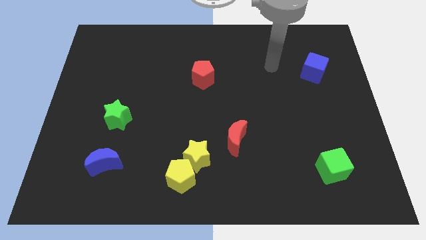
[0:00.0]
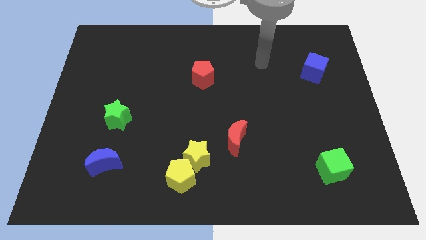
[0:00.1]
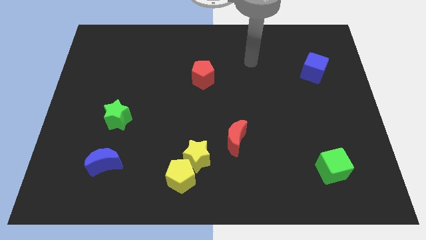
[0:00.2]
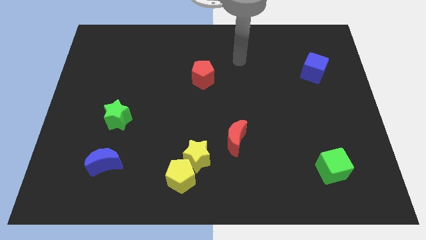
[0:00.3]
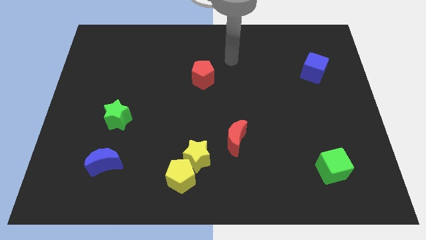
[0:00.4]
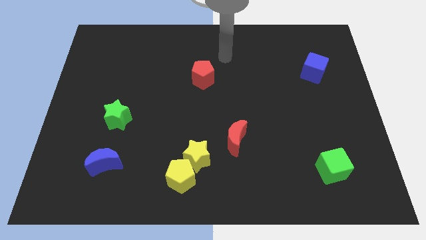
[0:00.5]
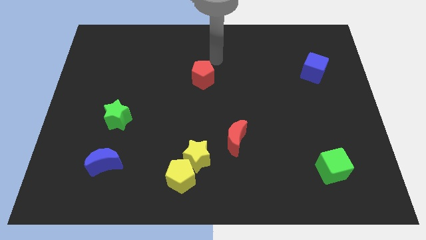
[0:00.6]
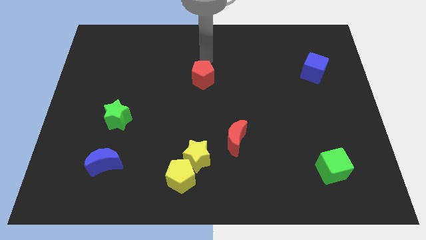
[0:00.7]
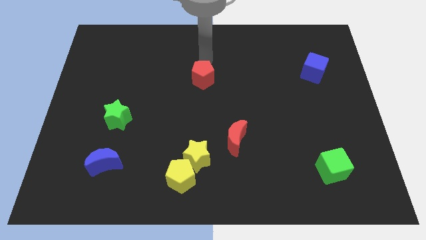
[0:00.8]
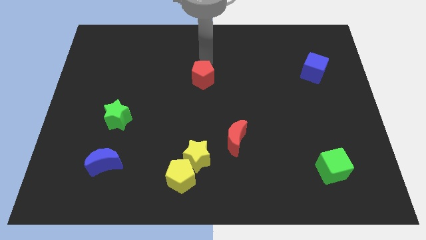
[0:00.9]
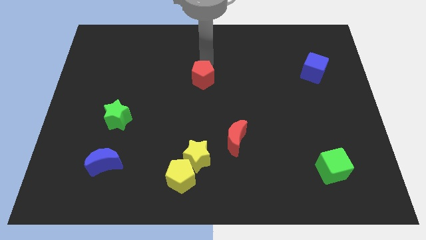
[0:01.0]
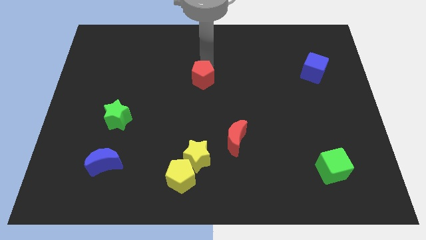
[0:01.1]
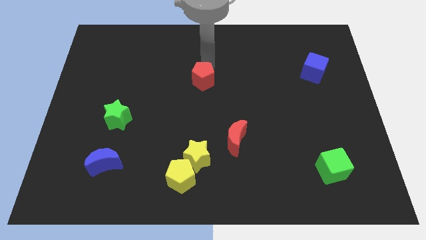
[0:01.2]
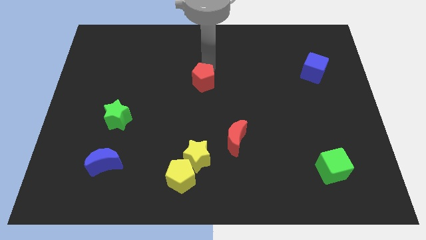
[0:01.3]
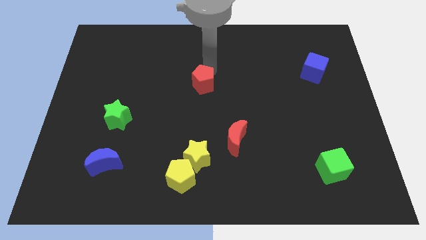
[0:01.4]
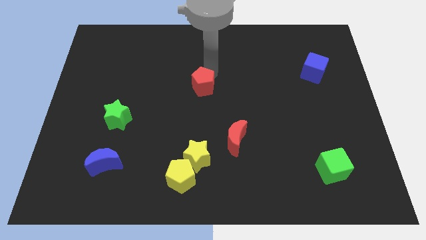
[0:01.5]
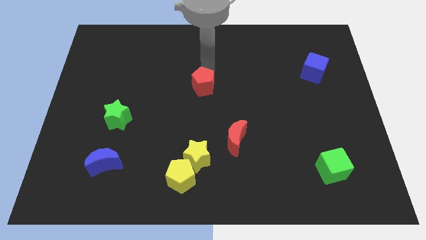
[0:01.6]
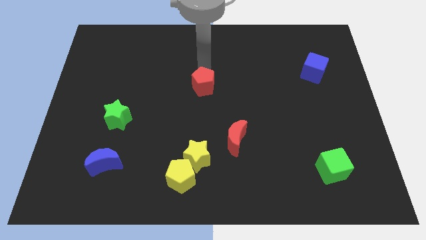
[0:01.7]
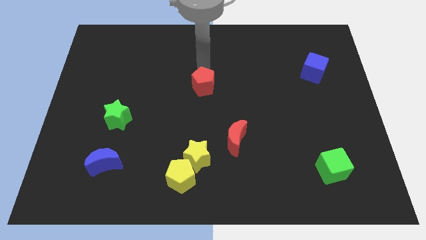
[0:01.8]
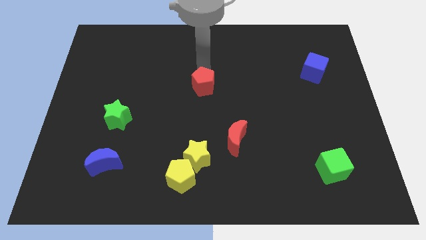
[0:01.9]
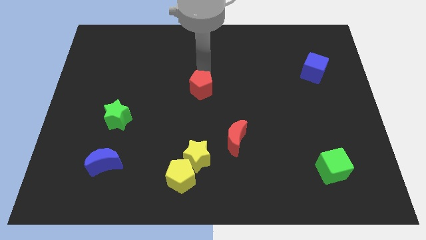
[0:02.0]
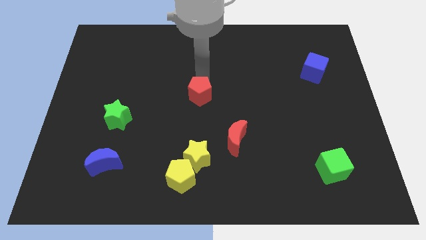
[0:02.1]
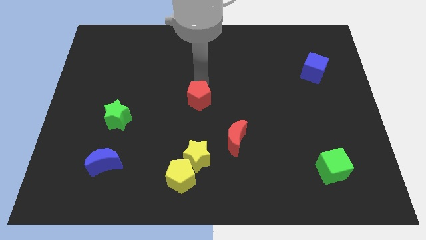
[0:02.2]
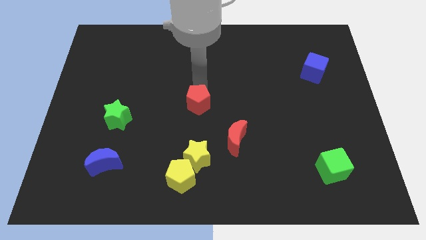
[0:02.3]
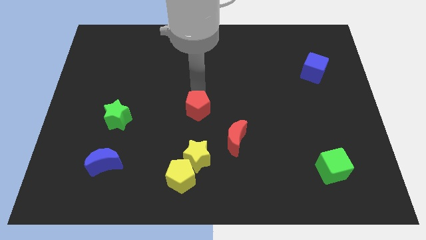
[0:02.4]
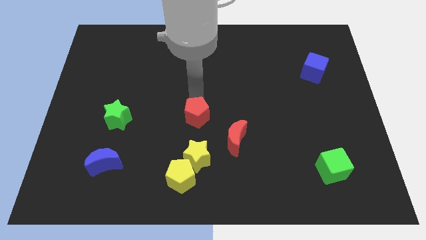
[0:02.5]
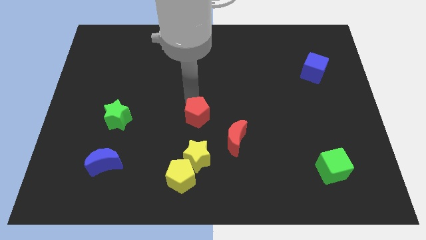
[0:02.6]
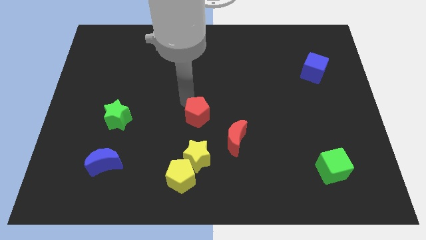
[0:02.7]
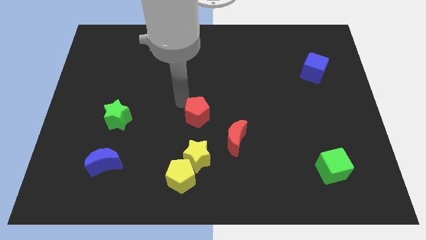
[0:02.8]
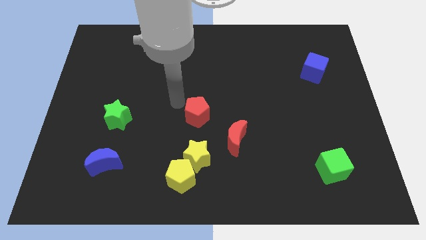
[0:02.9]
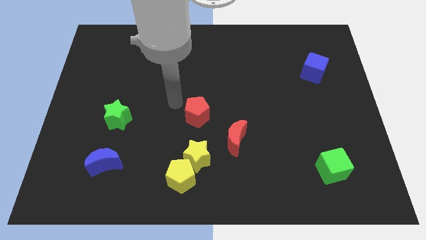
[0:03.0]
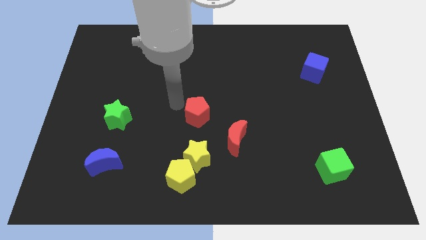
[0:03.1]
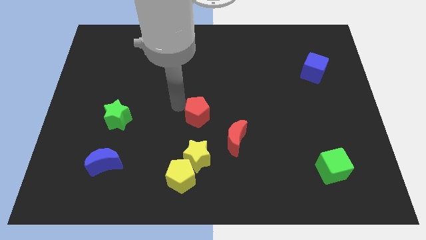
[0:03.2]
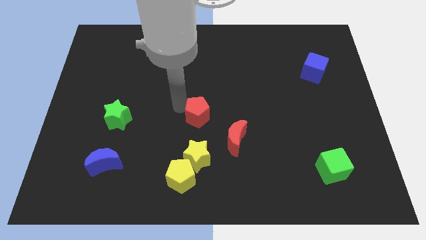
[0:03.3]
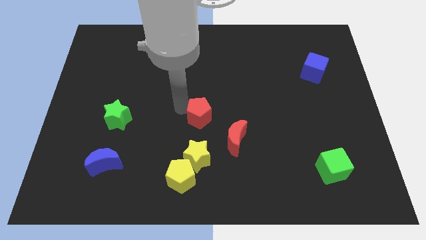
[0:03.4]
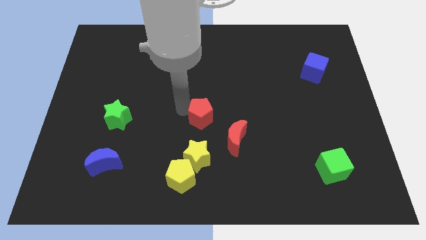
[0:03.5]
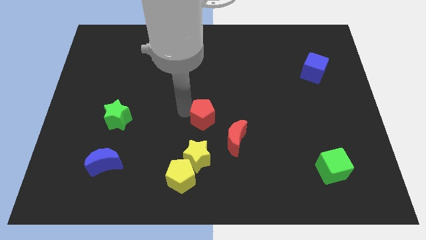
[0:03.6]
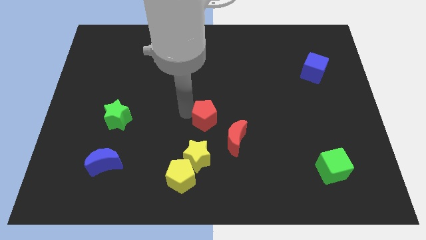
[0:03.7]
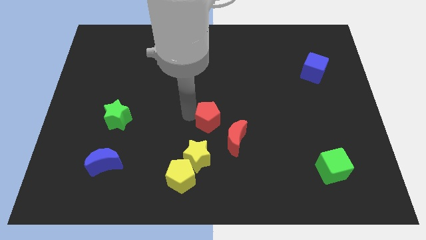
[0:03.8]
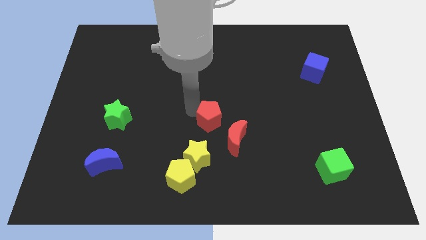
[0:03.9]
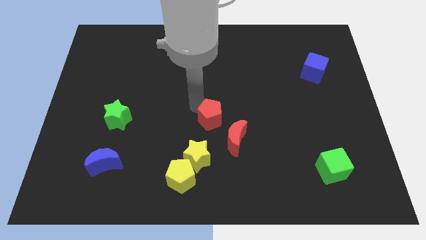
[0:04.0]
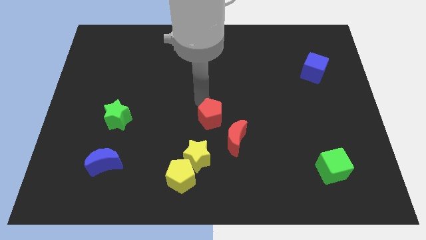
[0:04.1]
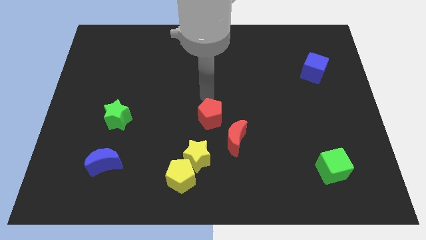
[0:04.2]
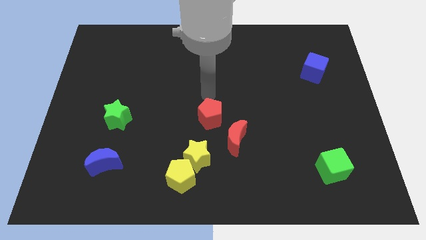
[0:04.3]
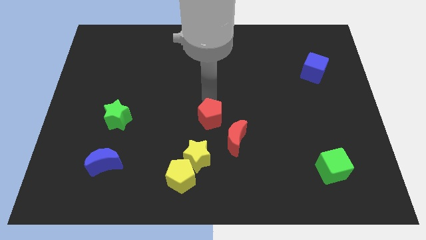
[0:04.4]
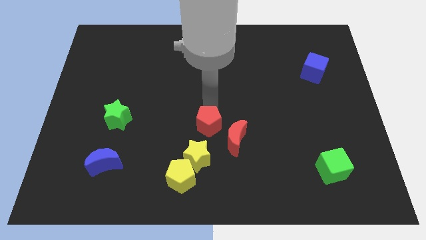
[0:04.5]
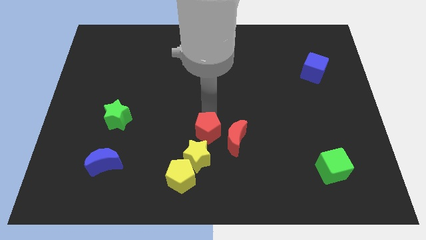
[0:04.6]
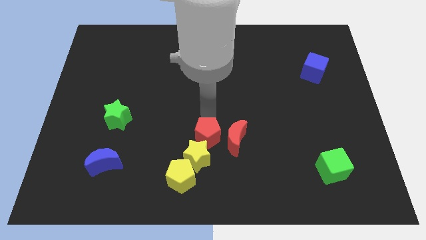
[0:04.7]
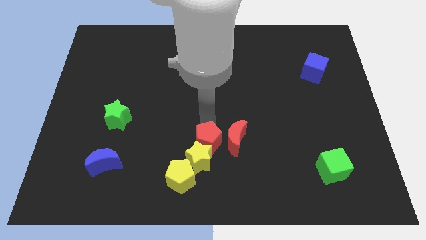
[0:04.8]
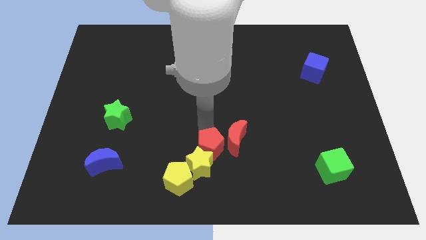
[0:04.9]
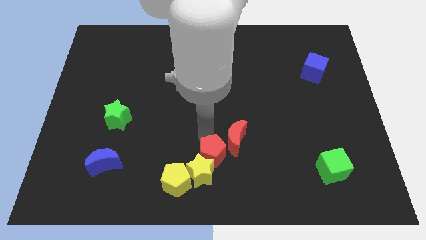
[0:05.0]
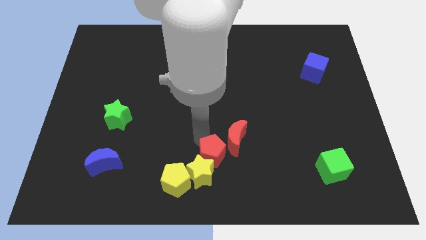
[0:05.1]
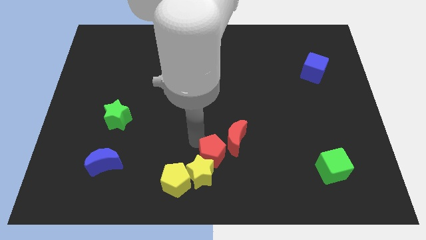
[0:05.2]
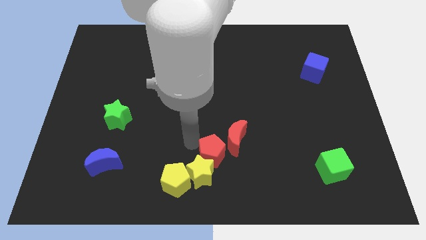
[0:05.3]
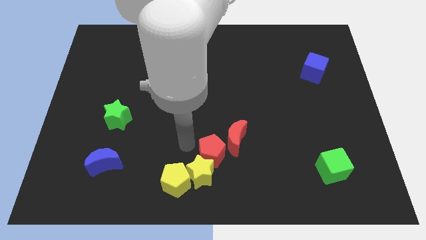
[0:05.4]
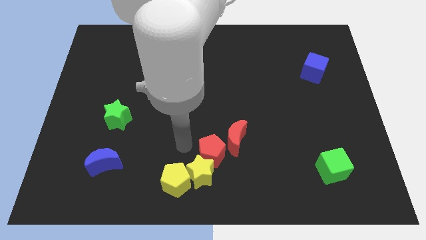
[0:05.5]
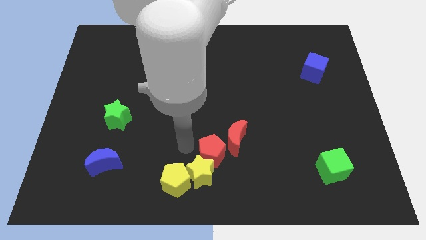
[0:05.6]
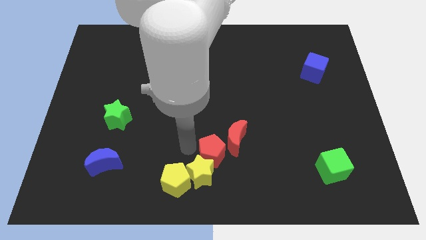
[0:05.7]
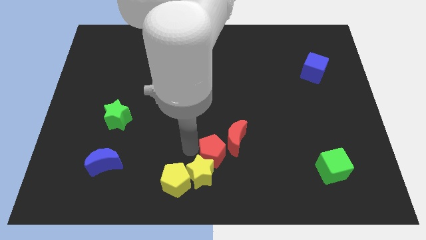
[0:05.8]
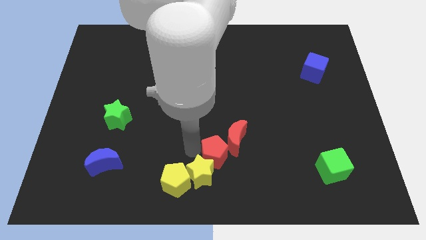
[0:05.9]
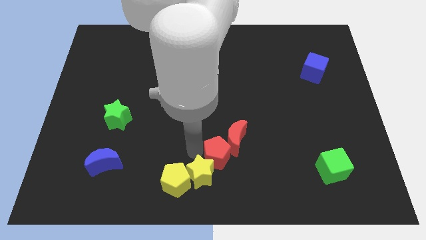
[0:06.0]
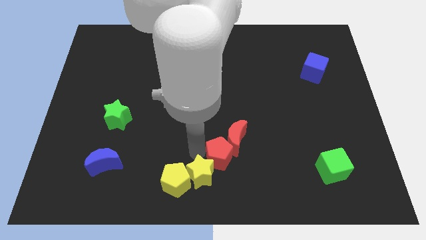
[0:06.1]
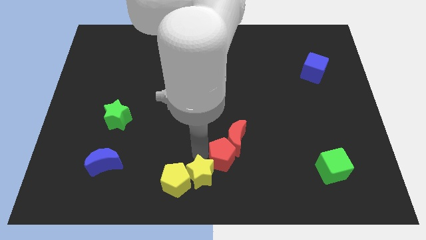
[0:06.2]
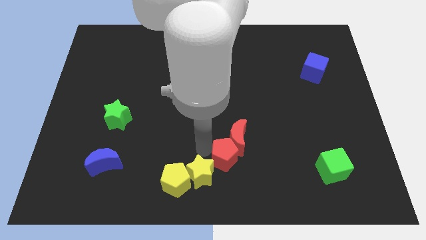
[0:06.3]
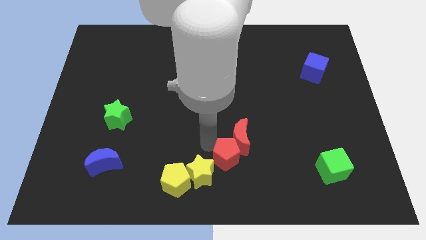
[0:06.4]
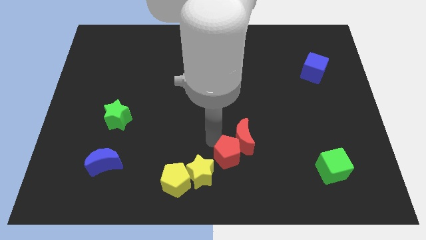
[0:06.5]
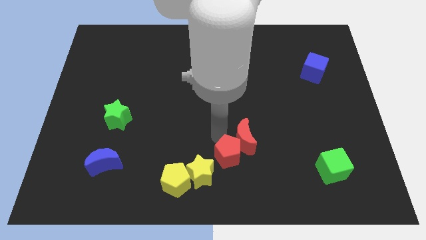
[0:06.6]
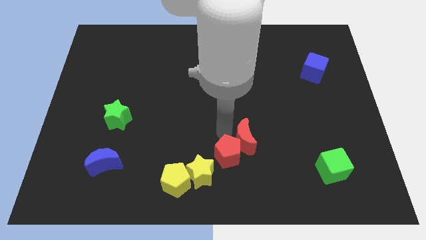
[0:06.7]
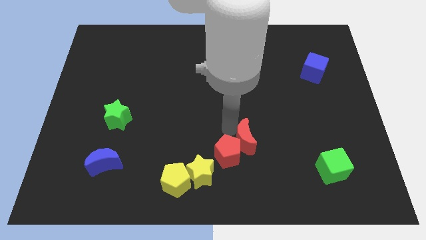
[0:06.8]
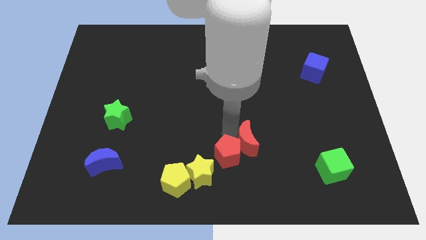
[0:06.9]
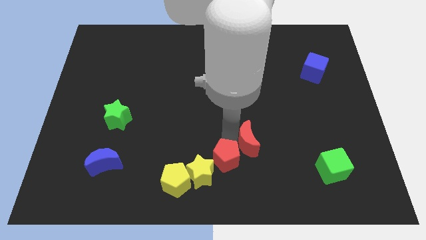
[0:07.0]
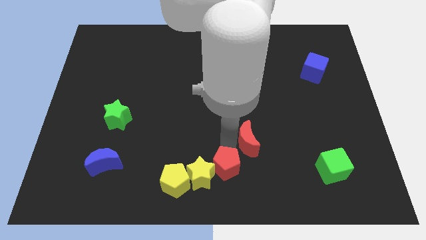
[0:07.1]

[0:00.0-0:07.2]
slide the red pentagon just right of the yellow pentagon

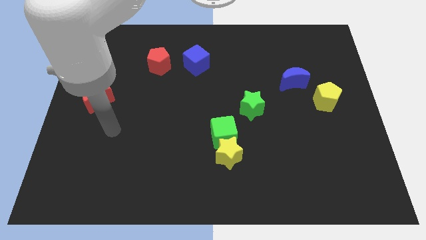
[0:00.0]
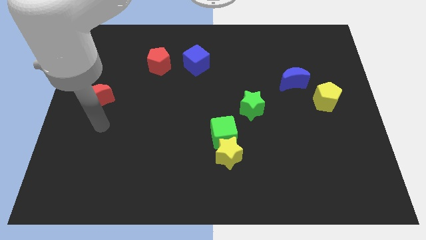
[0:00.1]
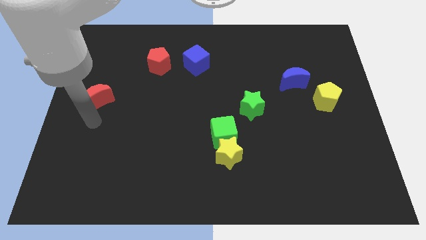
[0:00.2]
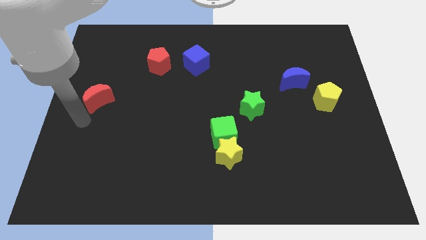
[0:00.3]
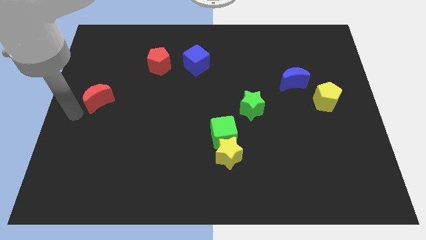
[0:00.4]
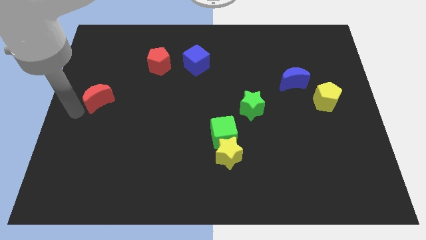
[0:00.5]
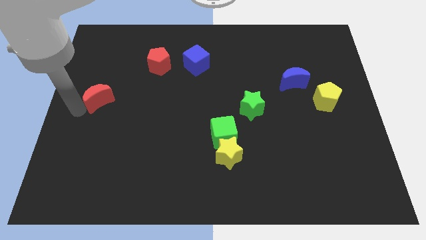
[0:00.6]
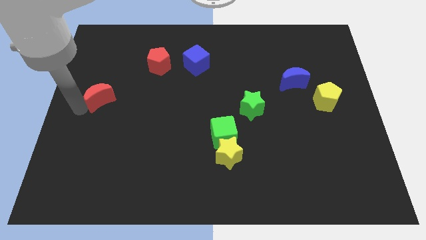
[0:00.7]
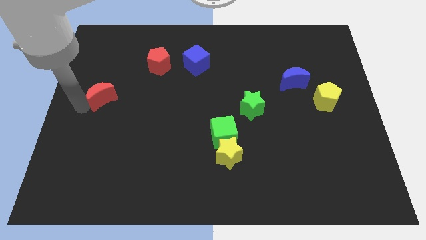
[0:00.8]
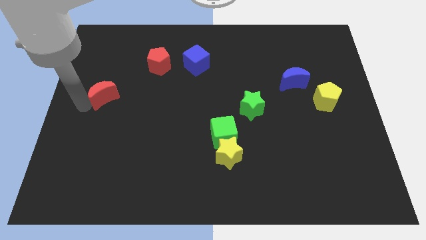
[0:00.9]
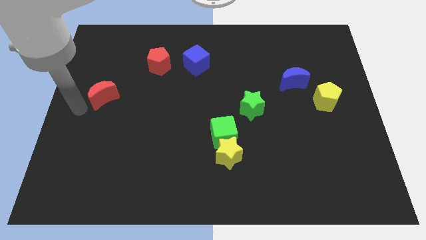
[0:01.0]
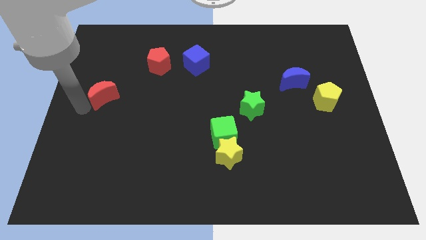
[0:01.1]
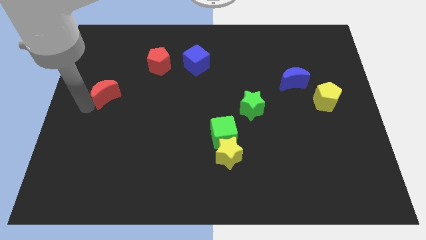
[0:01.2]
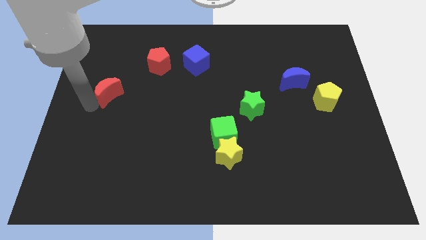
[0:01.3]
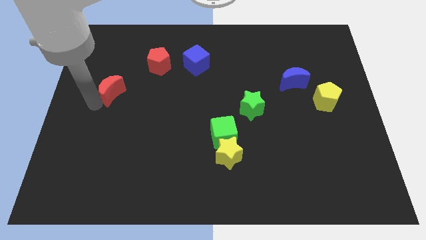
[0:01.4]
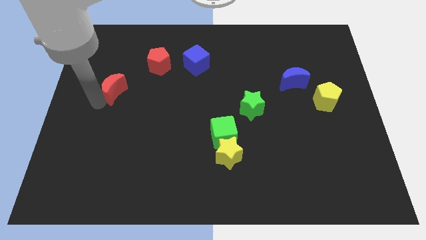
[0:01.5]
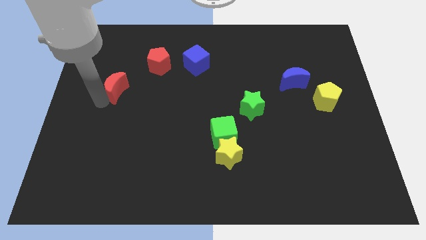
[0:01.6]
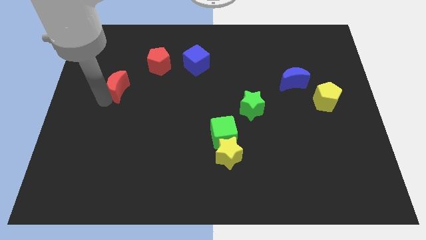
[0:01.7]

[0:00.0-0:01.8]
push the red moon diagonally down and to the left of the red pentagon
